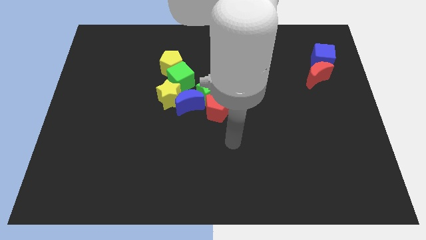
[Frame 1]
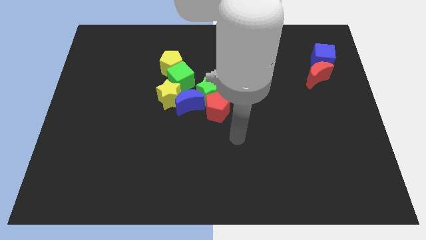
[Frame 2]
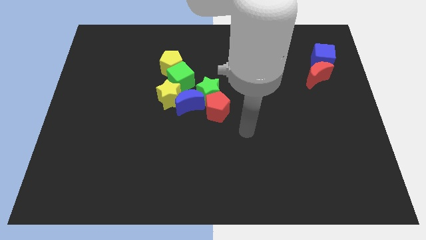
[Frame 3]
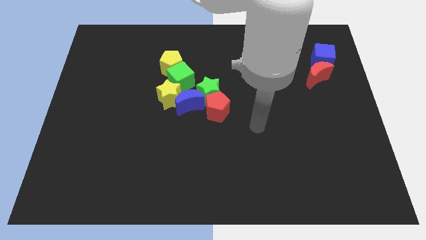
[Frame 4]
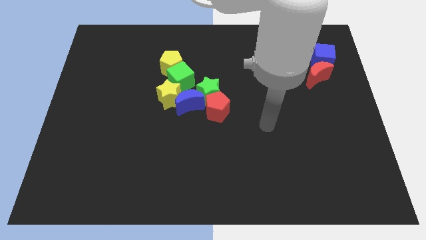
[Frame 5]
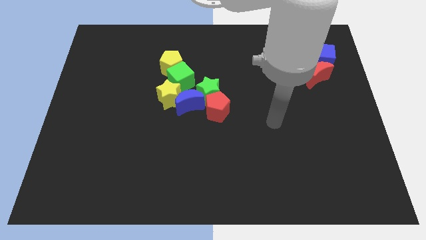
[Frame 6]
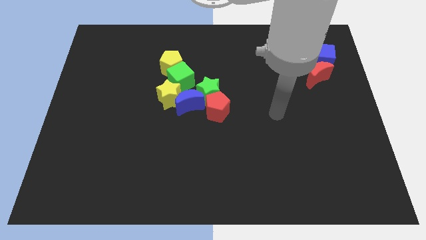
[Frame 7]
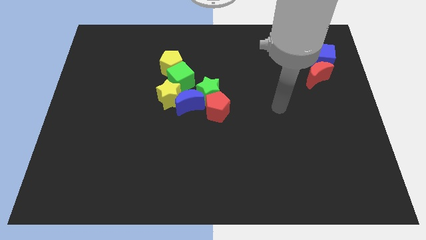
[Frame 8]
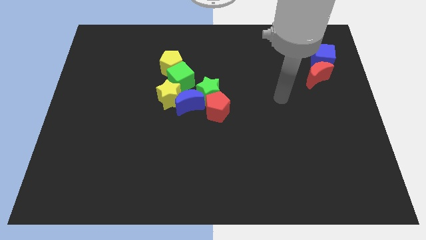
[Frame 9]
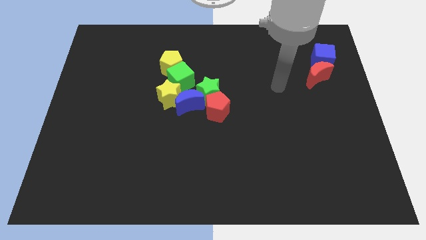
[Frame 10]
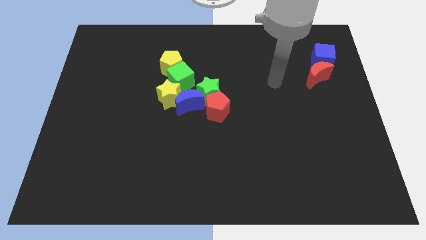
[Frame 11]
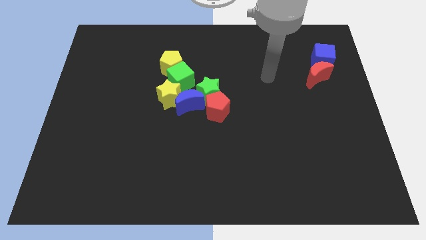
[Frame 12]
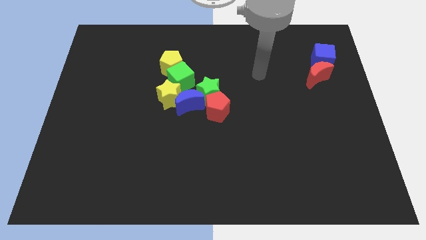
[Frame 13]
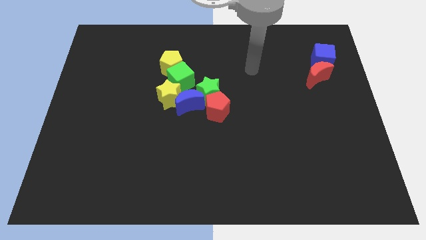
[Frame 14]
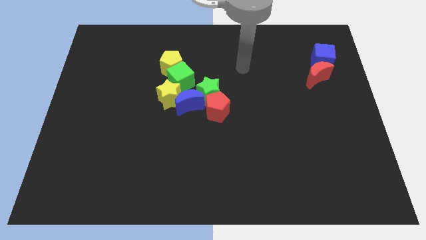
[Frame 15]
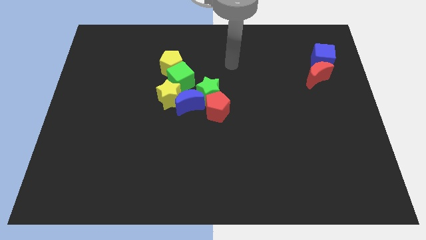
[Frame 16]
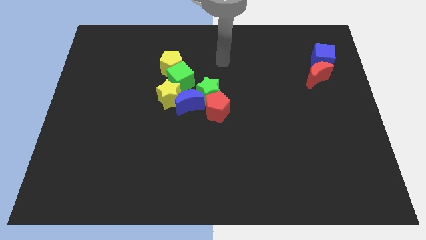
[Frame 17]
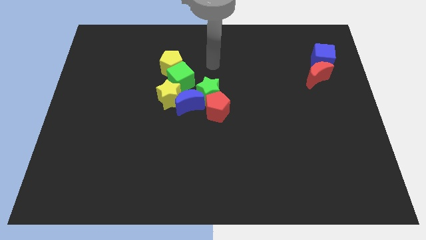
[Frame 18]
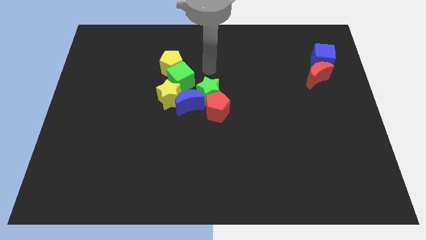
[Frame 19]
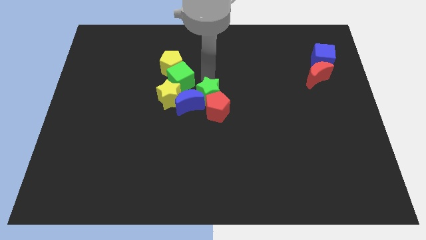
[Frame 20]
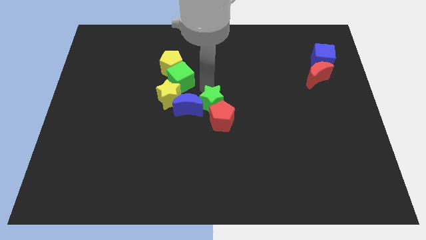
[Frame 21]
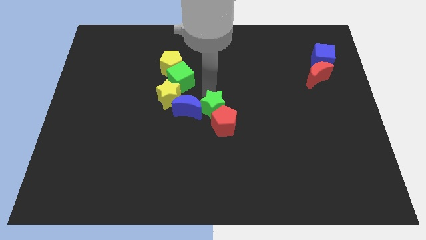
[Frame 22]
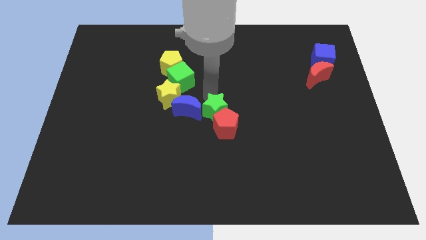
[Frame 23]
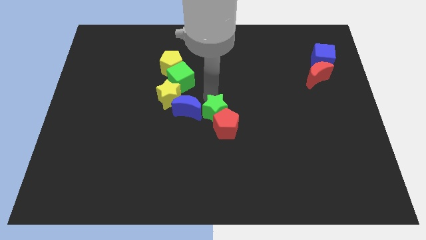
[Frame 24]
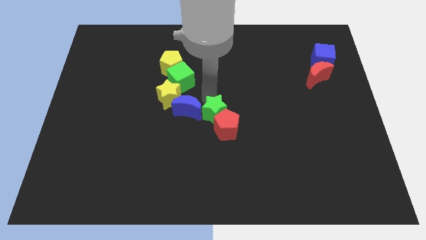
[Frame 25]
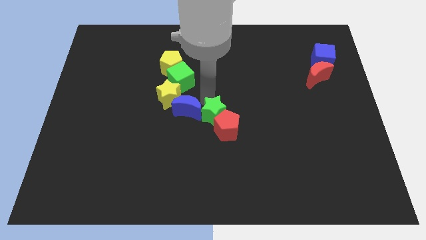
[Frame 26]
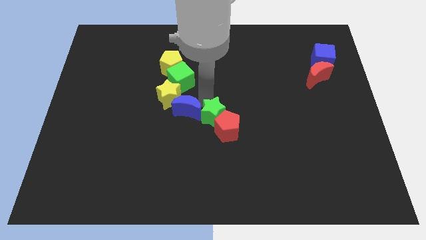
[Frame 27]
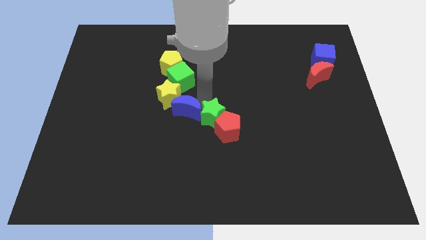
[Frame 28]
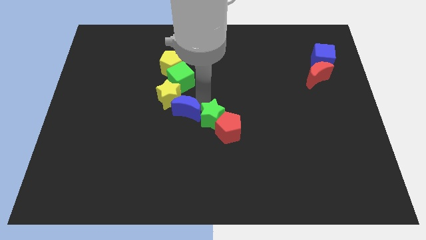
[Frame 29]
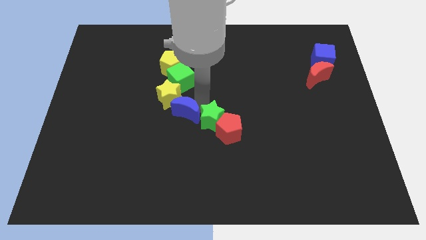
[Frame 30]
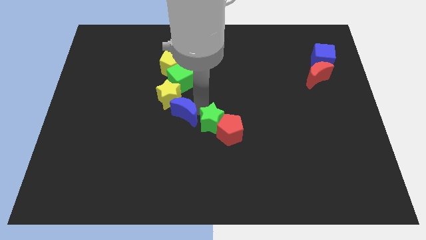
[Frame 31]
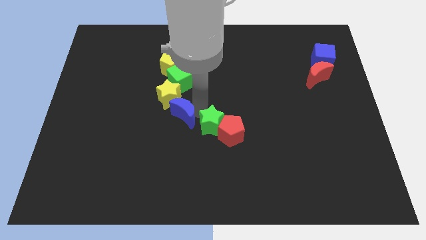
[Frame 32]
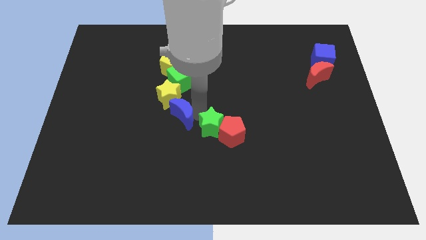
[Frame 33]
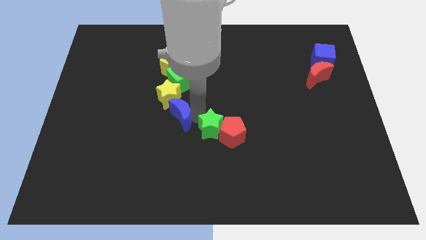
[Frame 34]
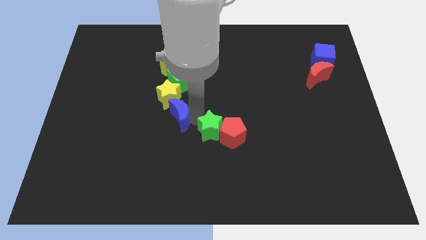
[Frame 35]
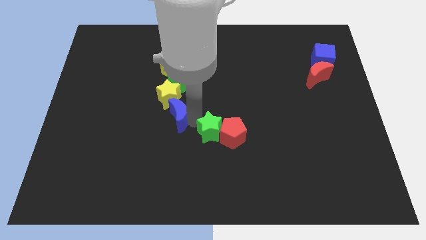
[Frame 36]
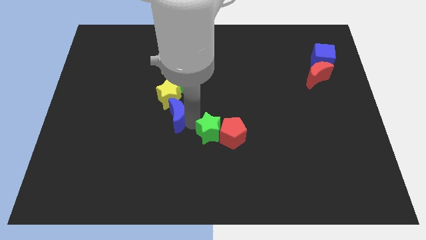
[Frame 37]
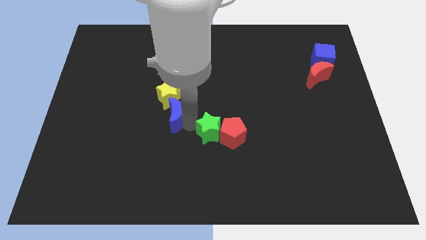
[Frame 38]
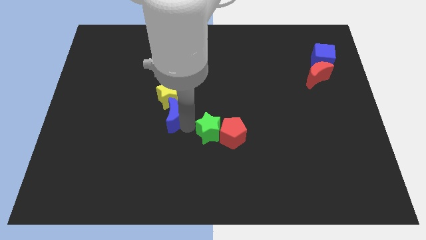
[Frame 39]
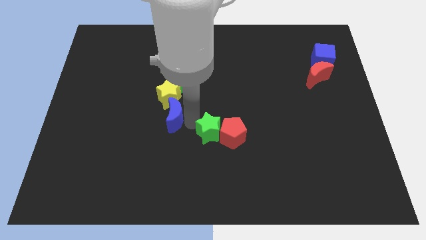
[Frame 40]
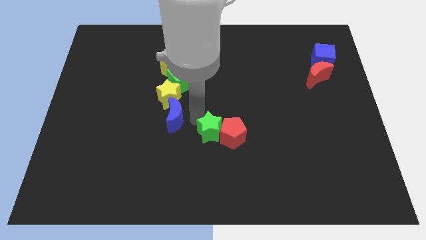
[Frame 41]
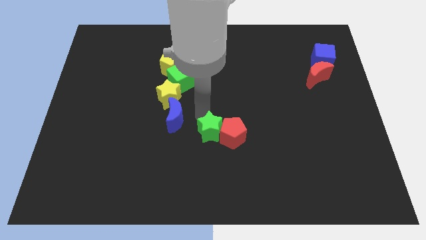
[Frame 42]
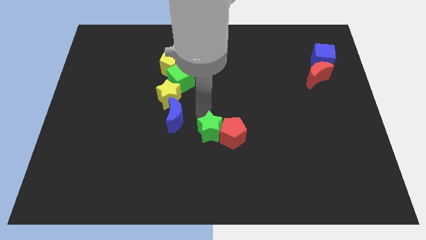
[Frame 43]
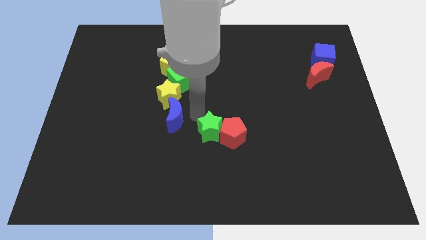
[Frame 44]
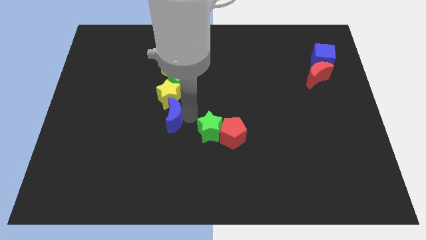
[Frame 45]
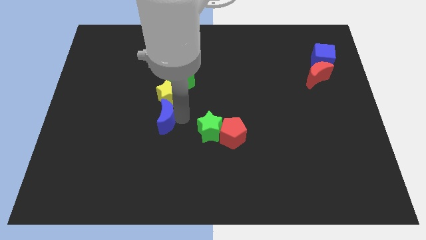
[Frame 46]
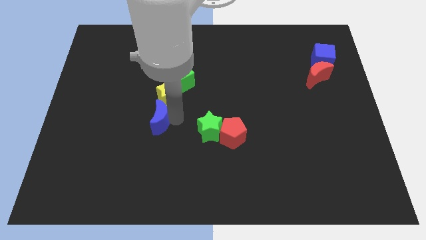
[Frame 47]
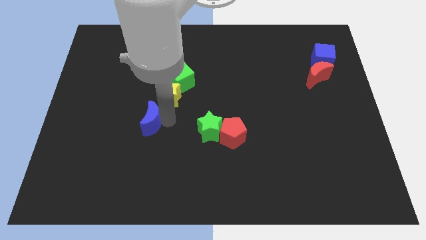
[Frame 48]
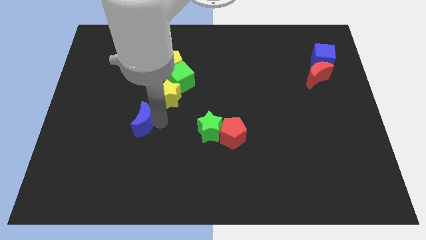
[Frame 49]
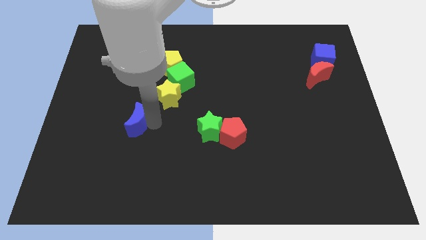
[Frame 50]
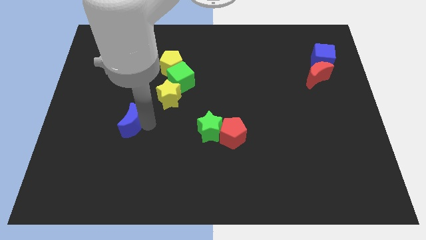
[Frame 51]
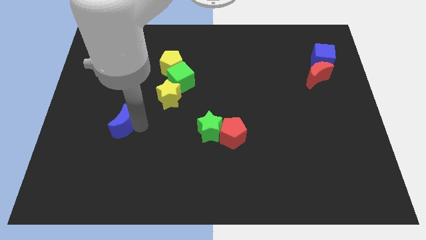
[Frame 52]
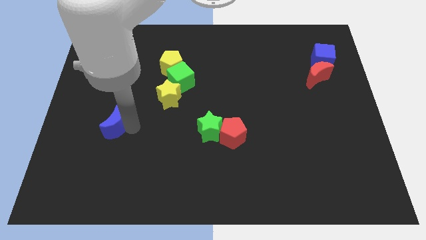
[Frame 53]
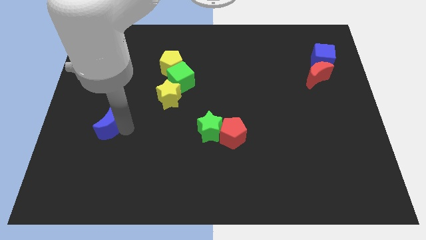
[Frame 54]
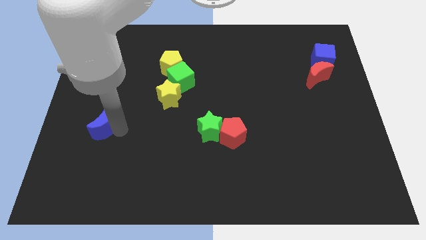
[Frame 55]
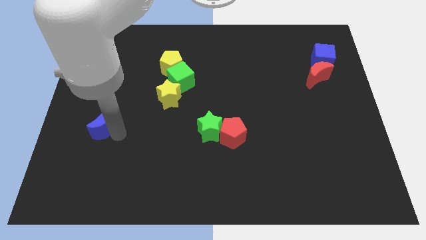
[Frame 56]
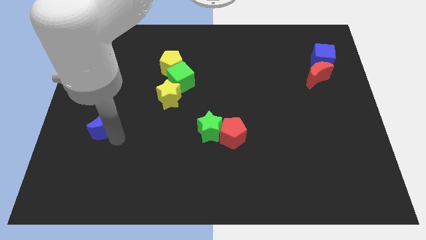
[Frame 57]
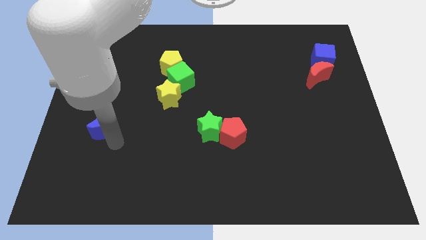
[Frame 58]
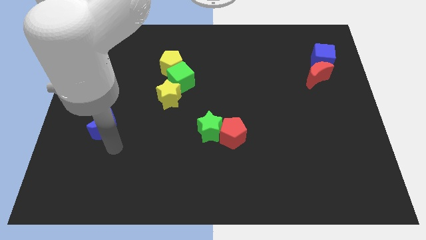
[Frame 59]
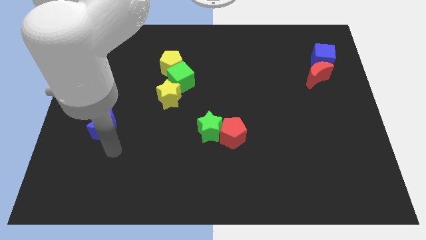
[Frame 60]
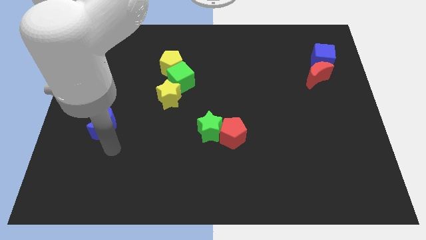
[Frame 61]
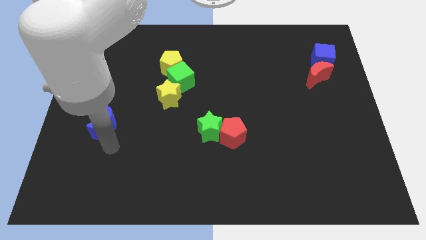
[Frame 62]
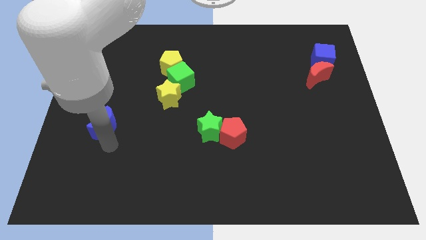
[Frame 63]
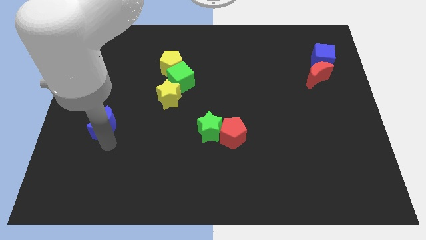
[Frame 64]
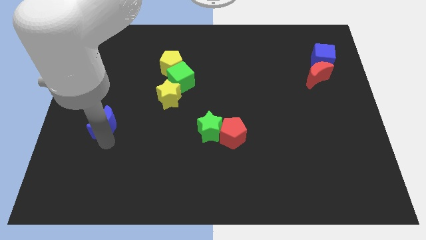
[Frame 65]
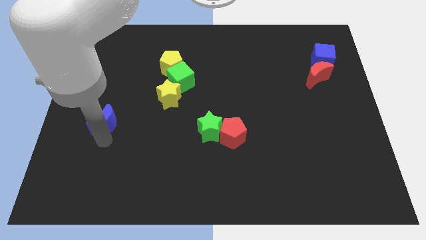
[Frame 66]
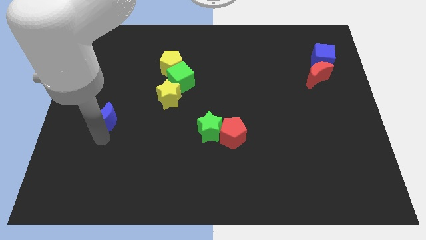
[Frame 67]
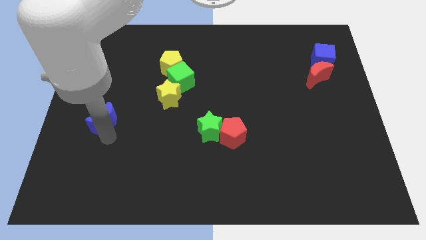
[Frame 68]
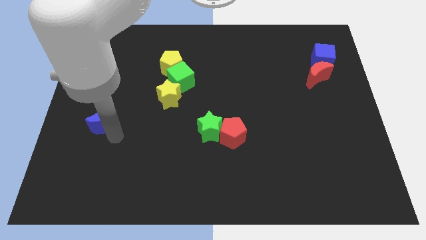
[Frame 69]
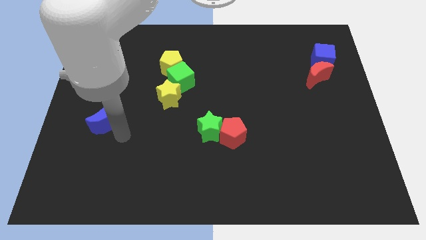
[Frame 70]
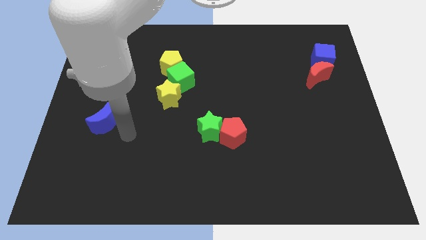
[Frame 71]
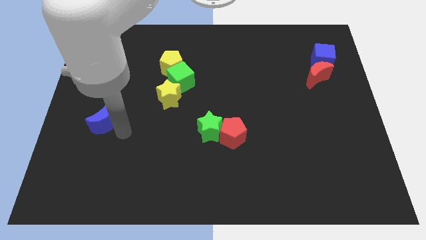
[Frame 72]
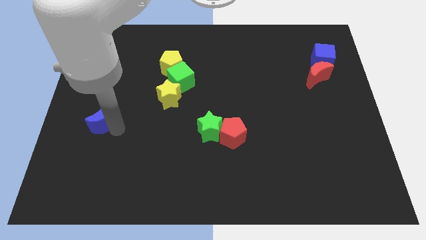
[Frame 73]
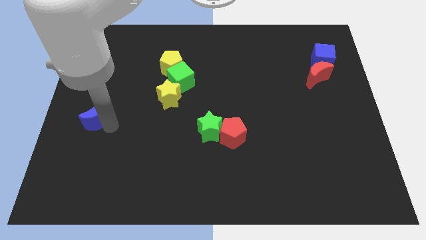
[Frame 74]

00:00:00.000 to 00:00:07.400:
slide the blue moon to the left side
